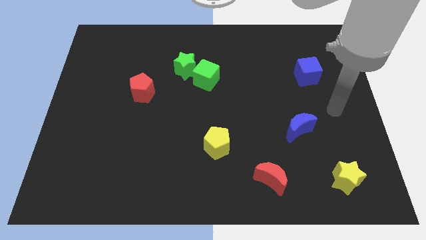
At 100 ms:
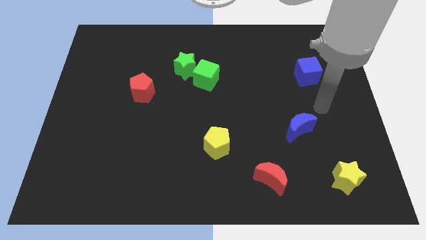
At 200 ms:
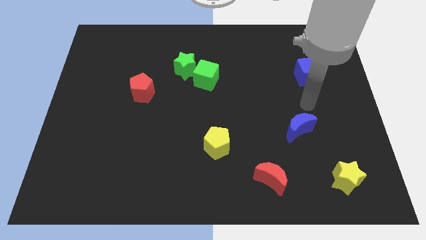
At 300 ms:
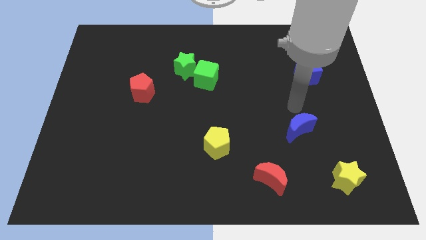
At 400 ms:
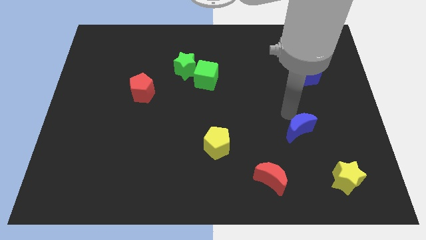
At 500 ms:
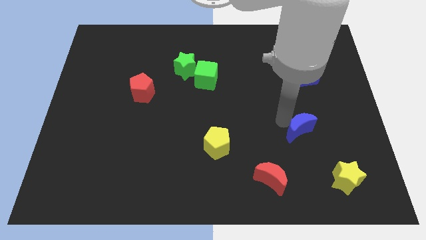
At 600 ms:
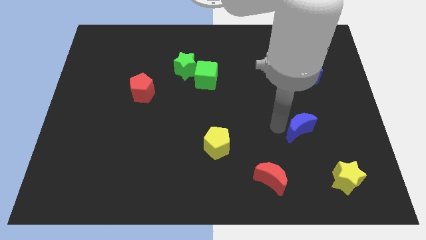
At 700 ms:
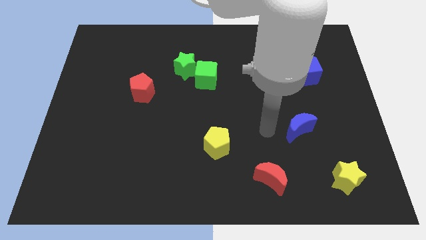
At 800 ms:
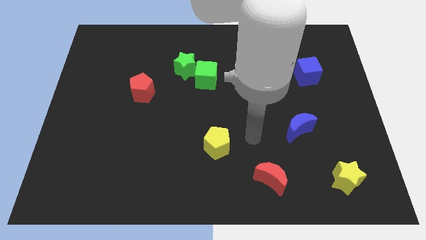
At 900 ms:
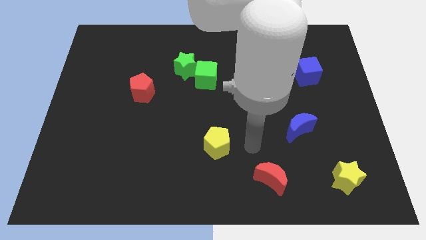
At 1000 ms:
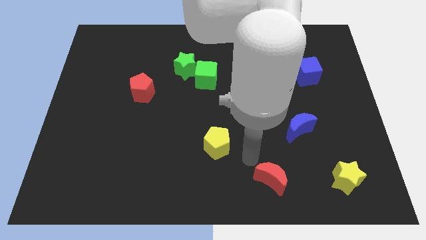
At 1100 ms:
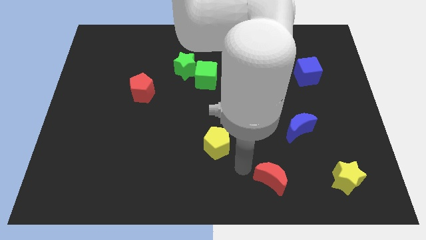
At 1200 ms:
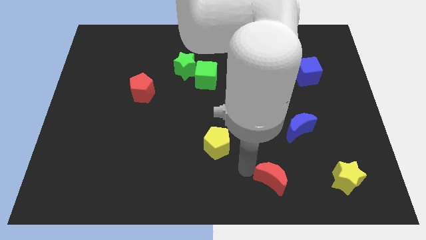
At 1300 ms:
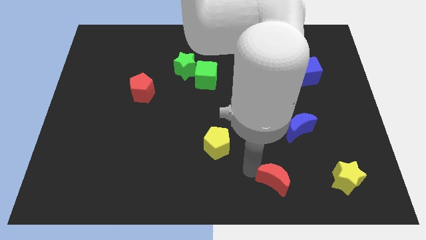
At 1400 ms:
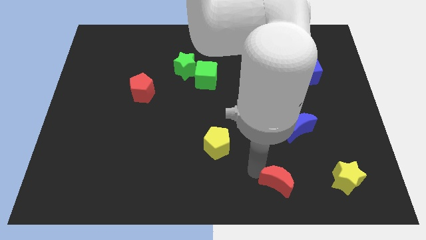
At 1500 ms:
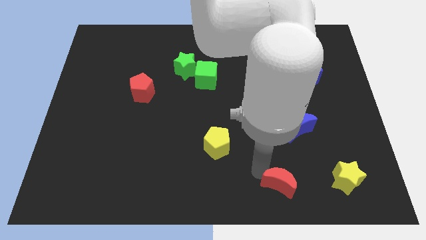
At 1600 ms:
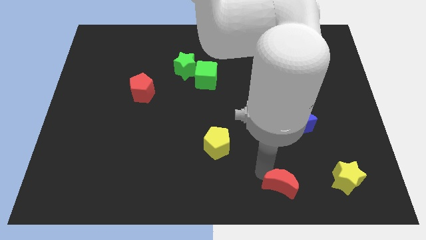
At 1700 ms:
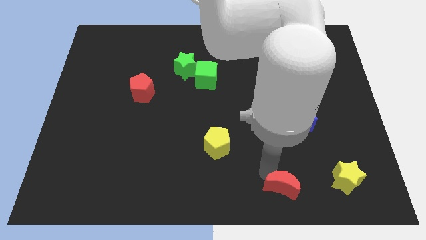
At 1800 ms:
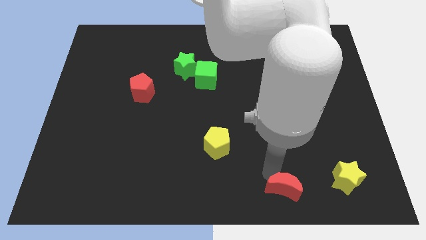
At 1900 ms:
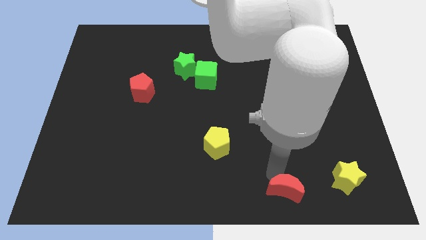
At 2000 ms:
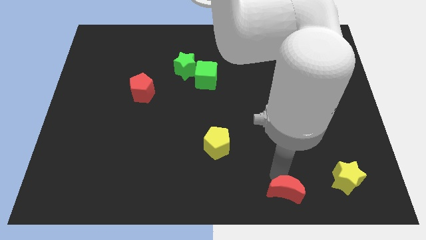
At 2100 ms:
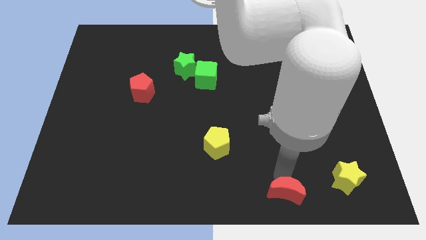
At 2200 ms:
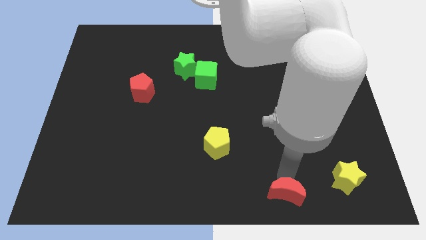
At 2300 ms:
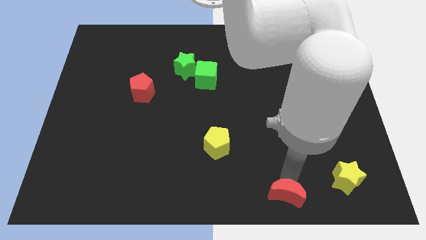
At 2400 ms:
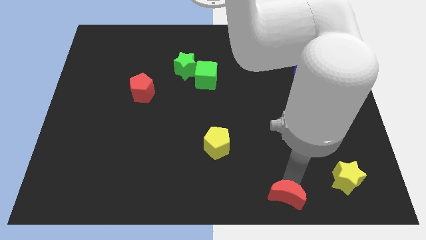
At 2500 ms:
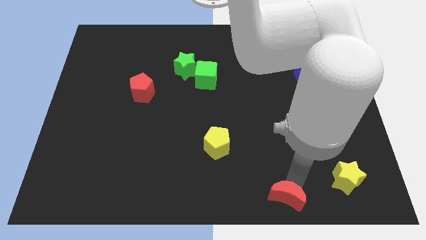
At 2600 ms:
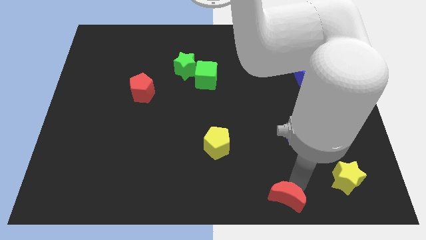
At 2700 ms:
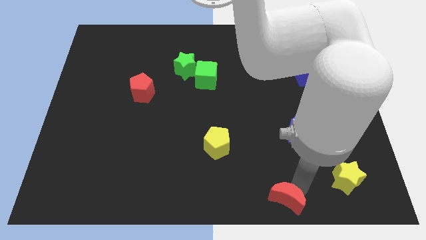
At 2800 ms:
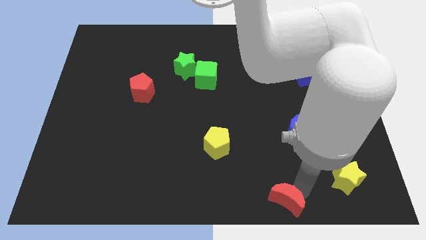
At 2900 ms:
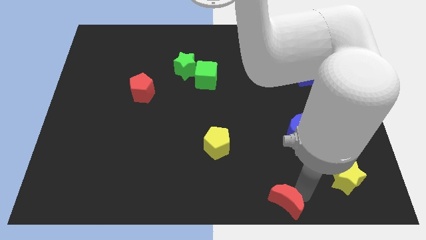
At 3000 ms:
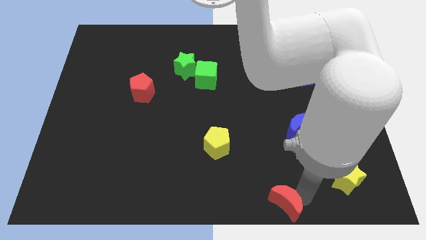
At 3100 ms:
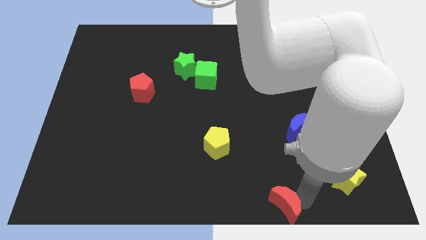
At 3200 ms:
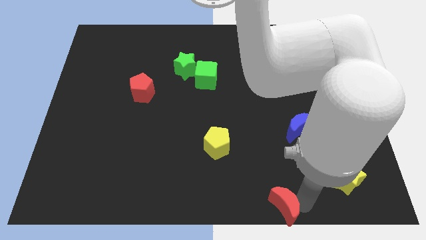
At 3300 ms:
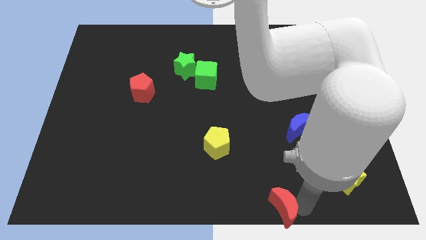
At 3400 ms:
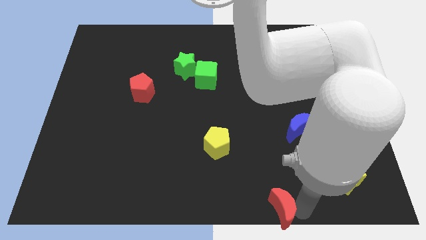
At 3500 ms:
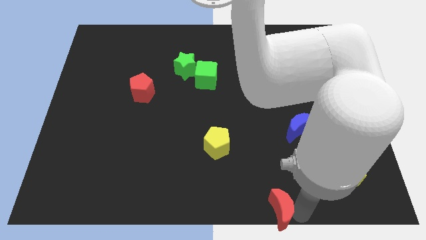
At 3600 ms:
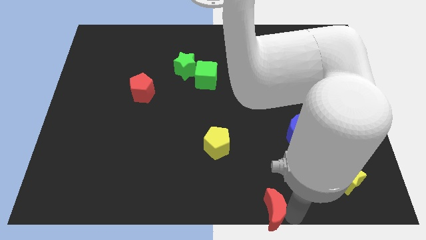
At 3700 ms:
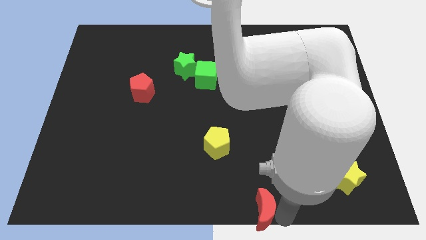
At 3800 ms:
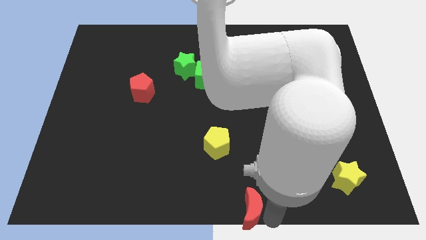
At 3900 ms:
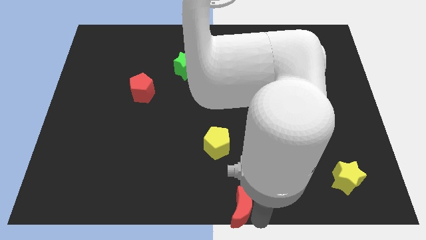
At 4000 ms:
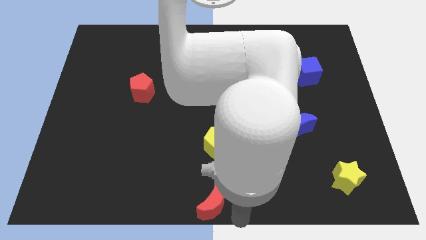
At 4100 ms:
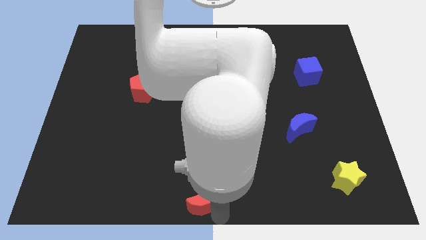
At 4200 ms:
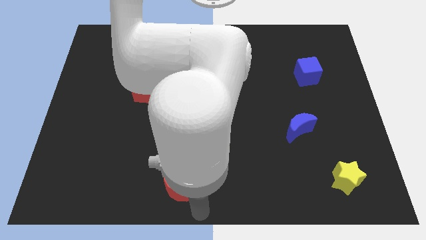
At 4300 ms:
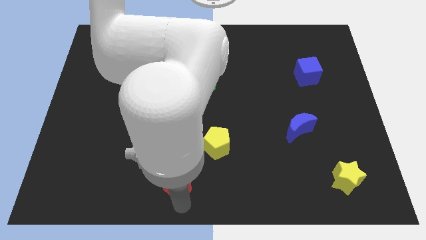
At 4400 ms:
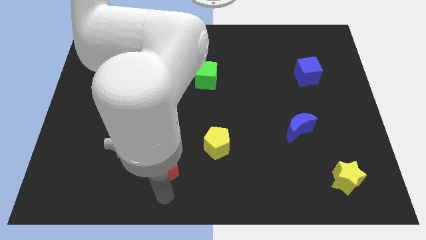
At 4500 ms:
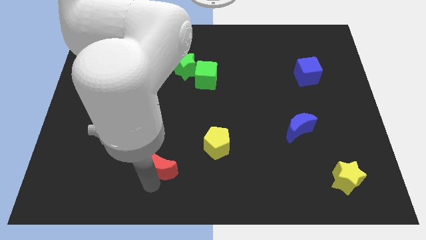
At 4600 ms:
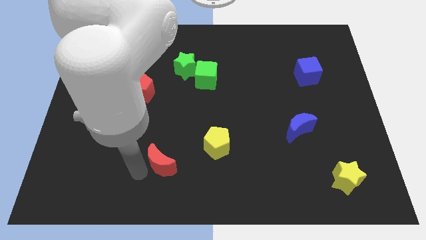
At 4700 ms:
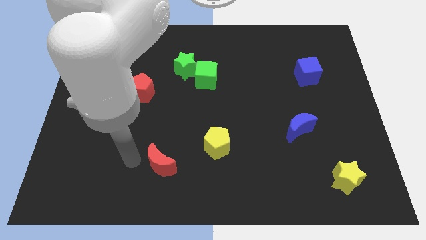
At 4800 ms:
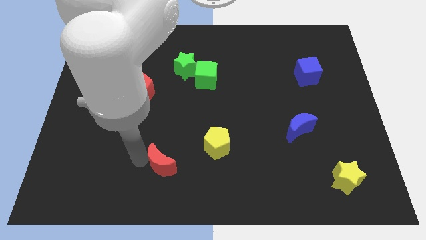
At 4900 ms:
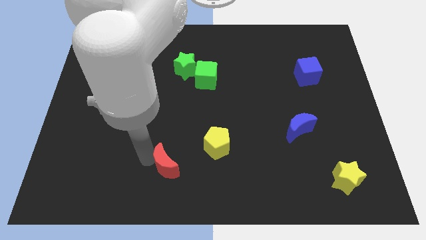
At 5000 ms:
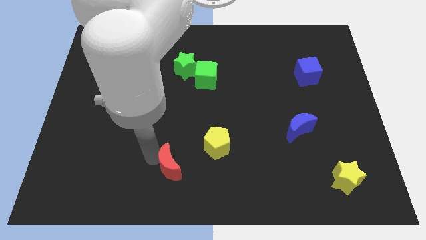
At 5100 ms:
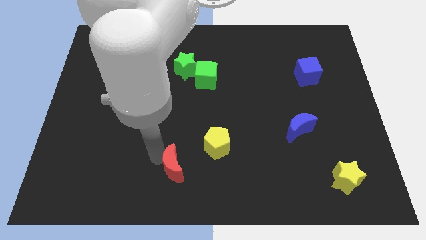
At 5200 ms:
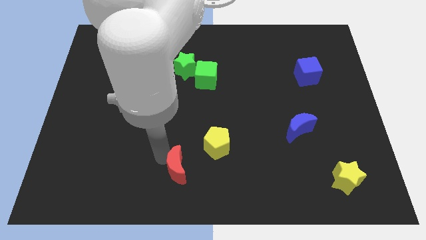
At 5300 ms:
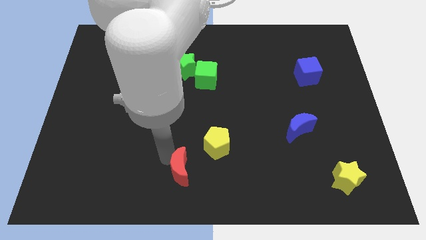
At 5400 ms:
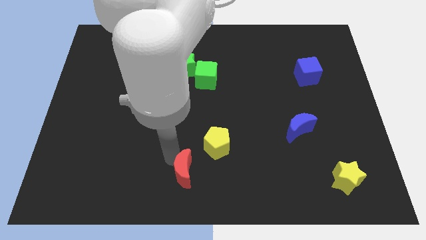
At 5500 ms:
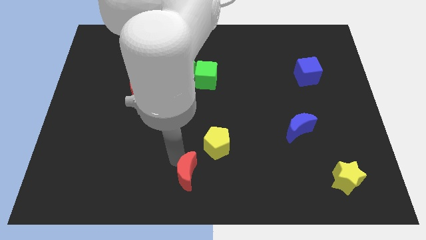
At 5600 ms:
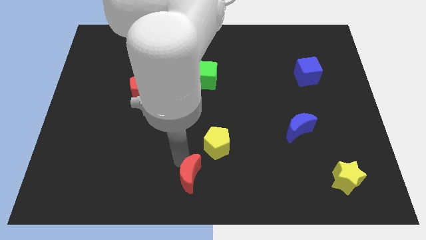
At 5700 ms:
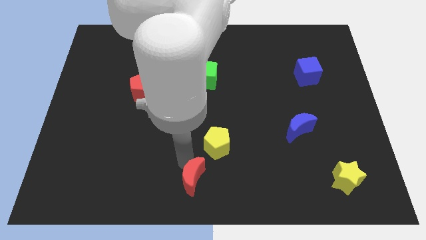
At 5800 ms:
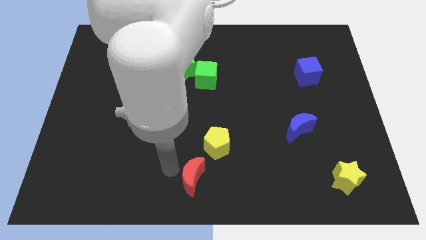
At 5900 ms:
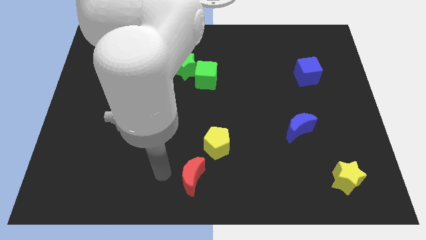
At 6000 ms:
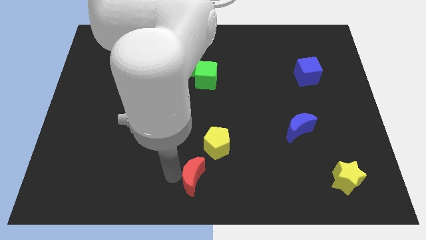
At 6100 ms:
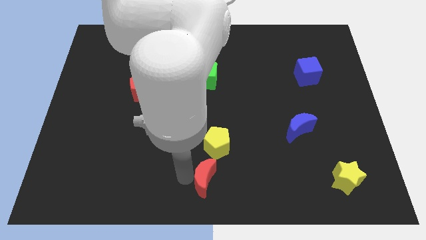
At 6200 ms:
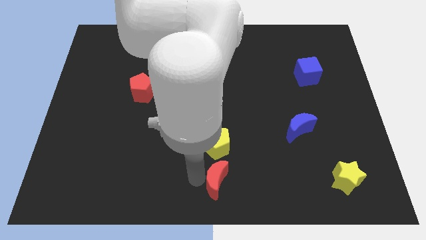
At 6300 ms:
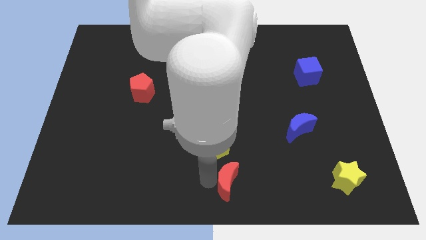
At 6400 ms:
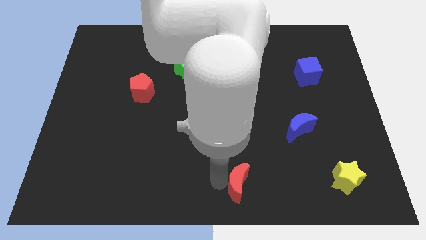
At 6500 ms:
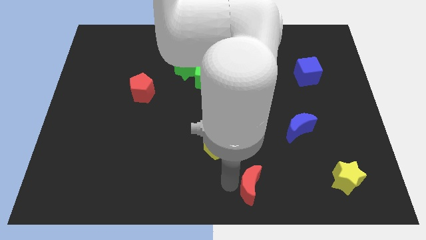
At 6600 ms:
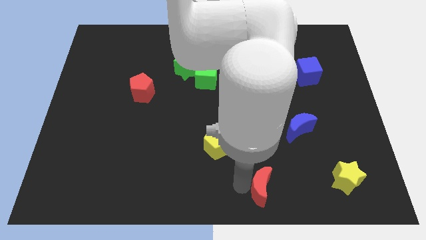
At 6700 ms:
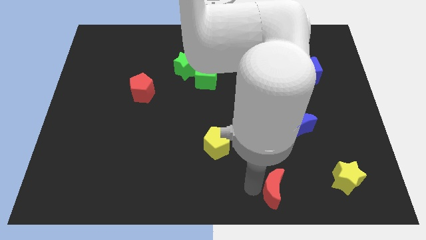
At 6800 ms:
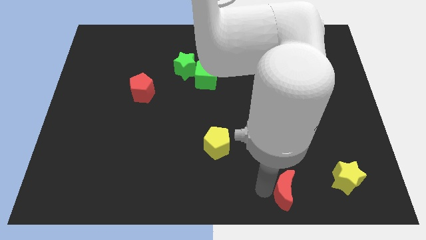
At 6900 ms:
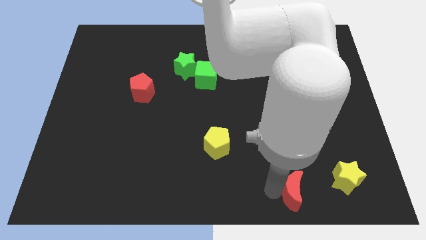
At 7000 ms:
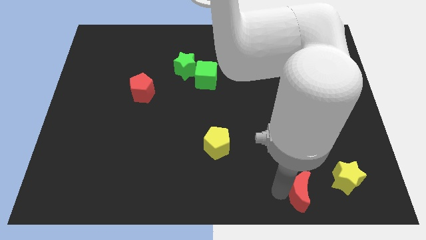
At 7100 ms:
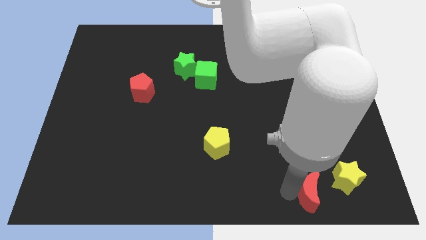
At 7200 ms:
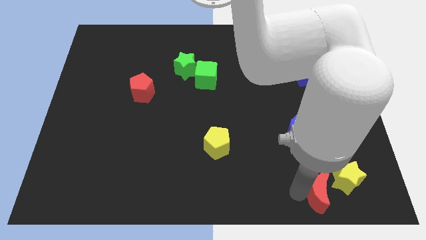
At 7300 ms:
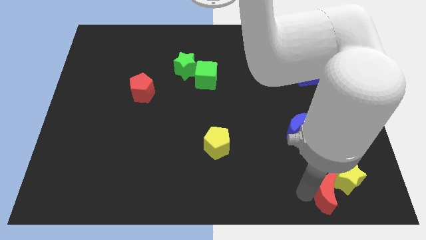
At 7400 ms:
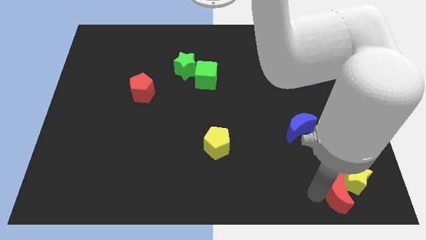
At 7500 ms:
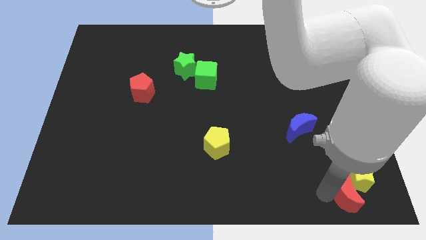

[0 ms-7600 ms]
move the red moon to the lower right corner
